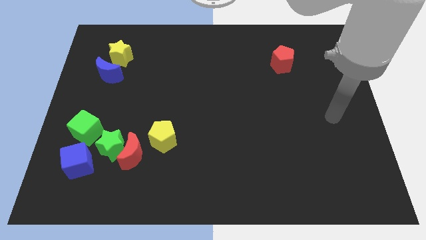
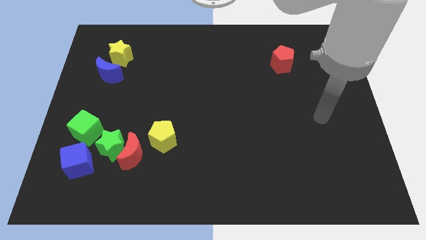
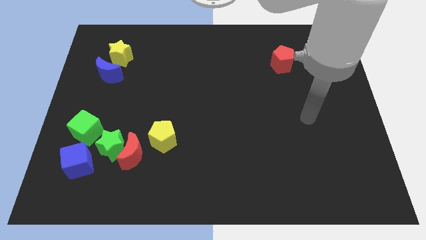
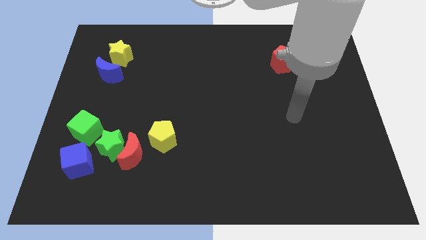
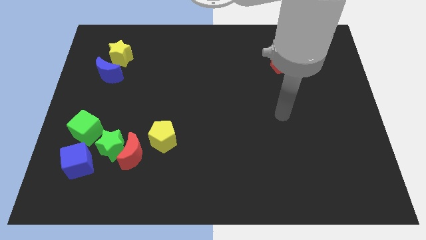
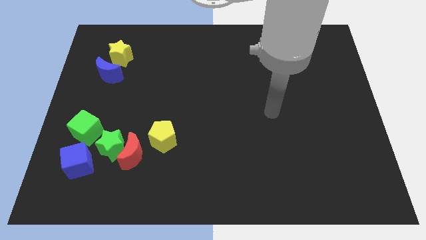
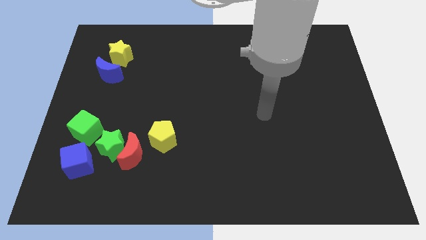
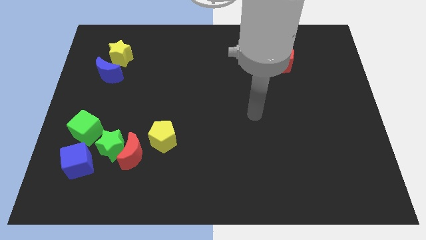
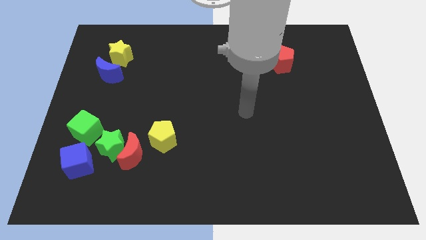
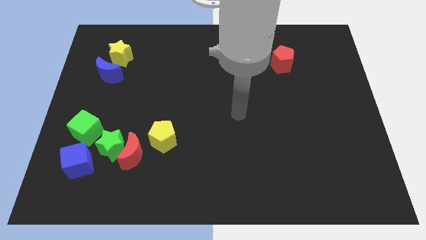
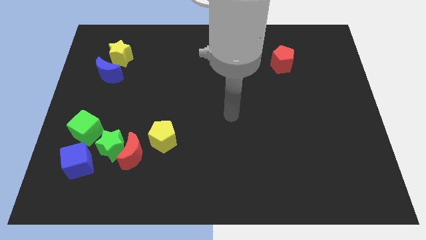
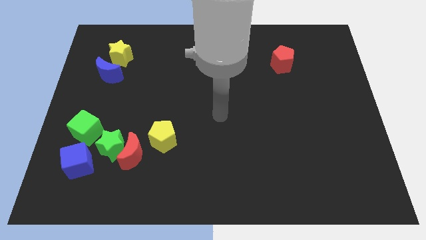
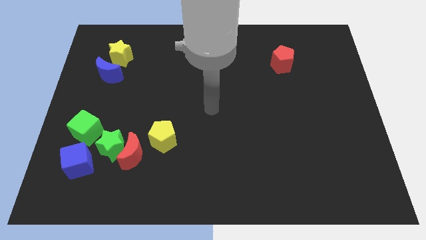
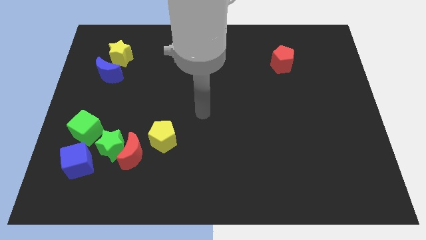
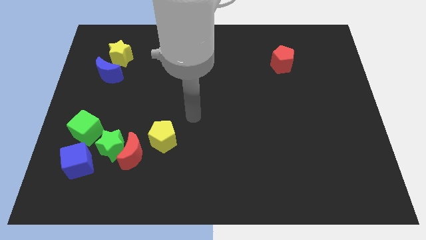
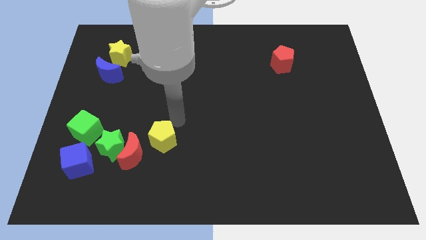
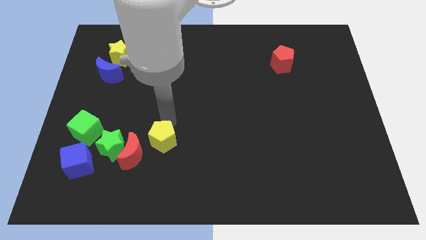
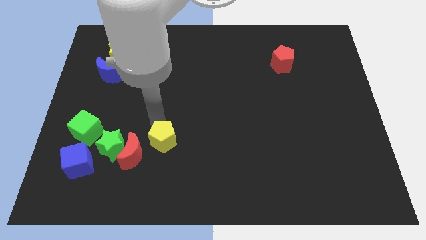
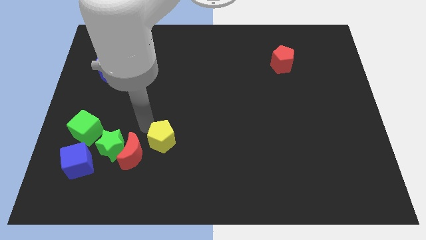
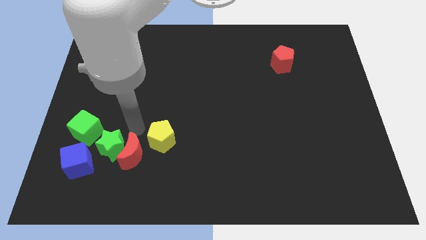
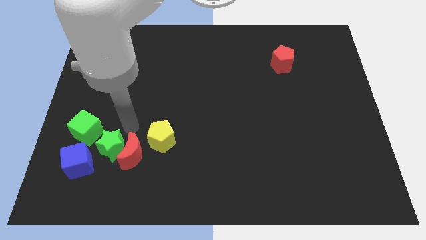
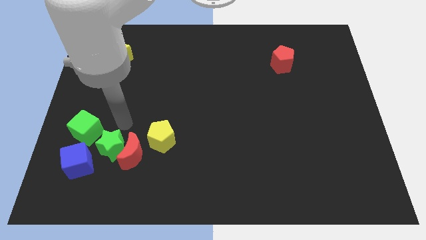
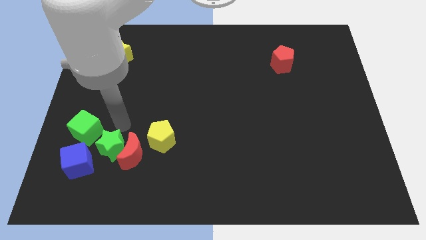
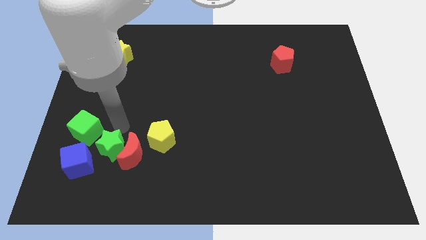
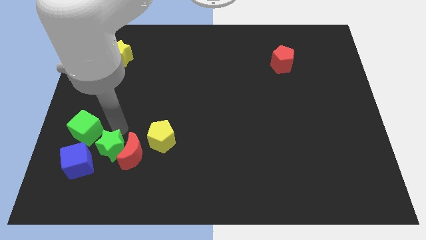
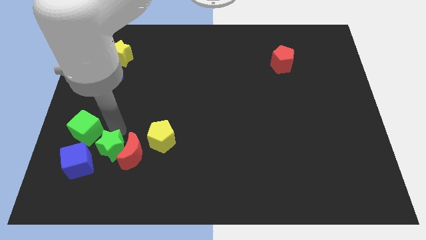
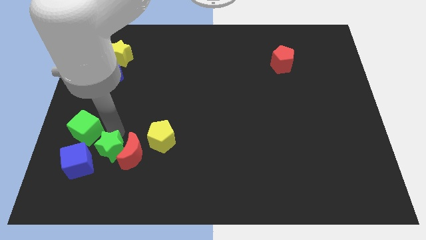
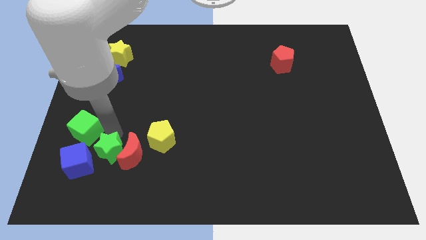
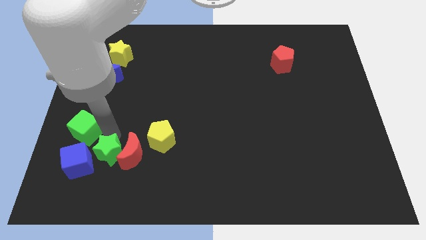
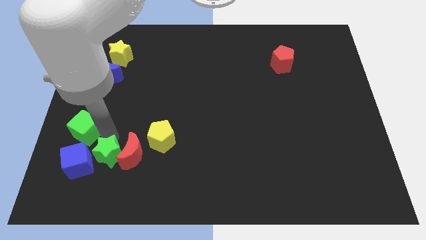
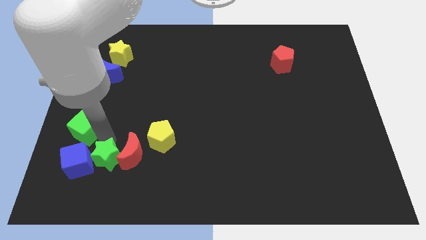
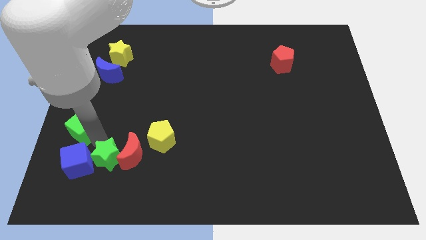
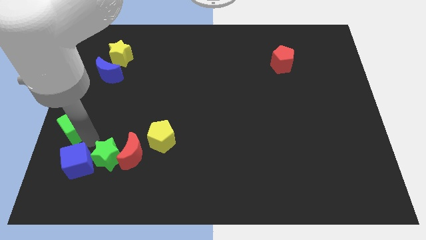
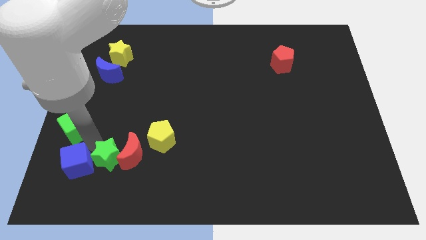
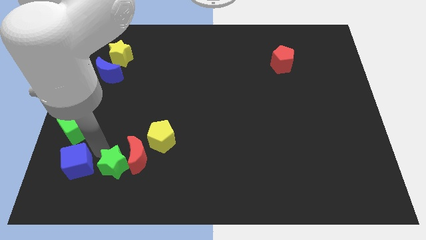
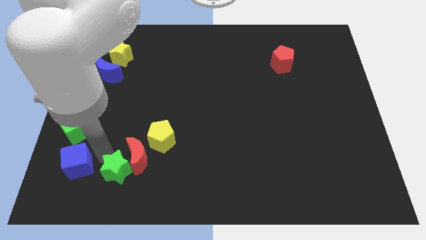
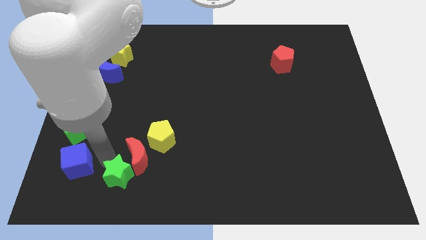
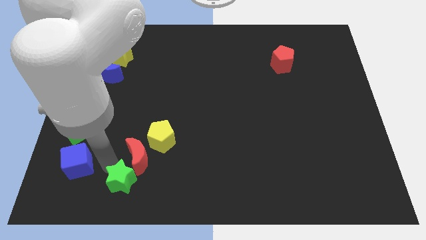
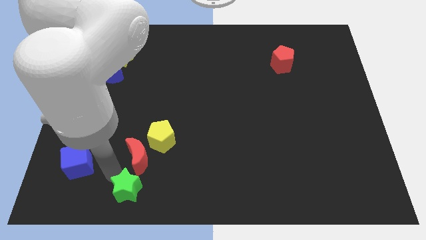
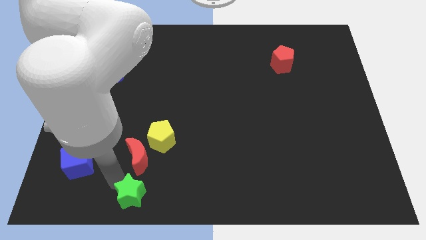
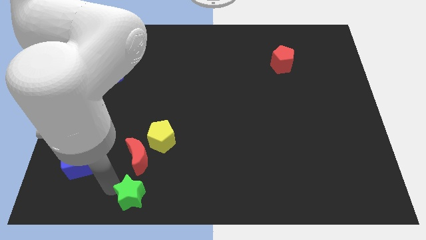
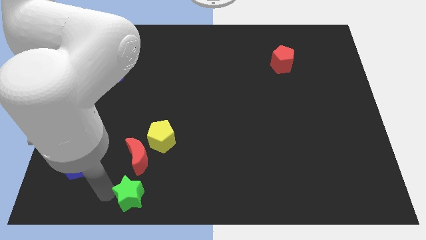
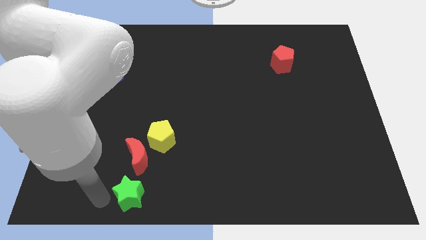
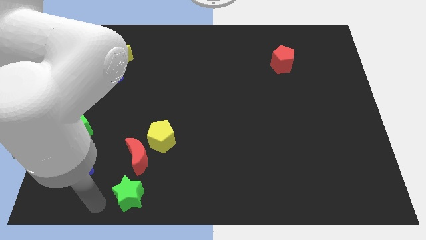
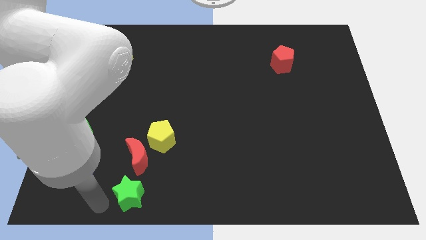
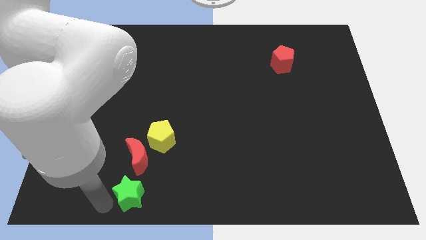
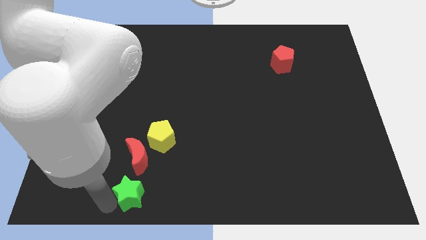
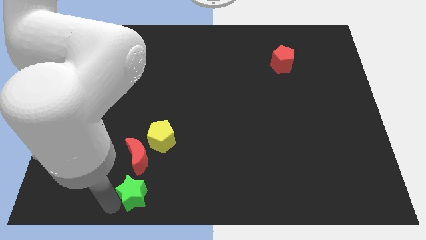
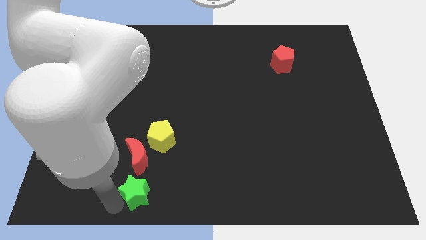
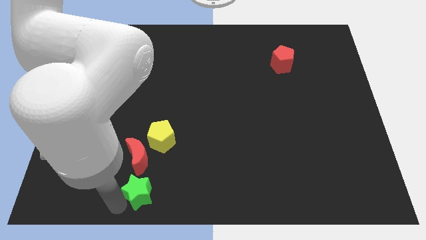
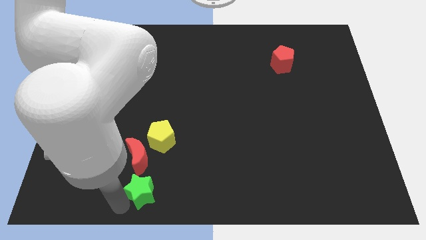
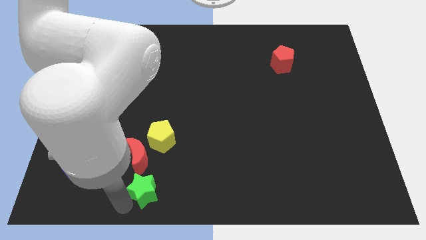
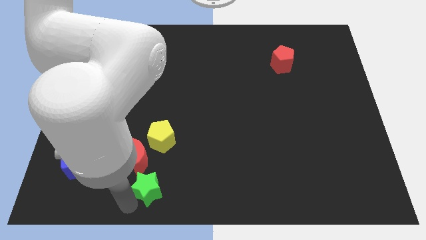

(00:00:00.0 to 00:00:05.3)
move the green star to the bottom

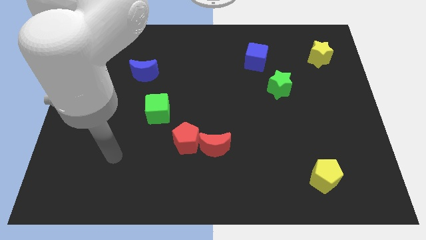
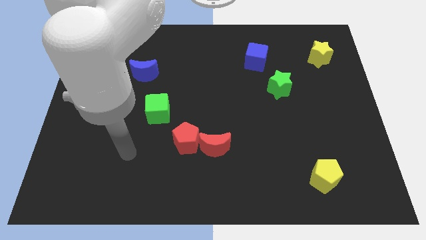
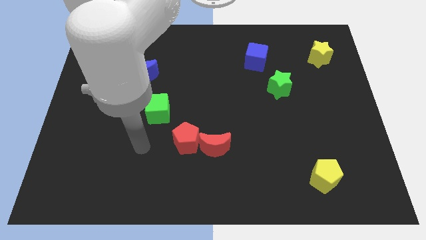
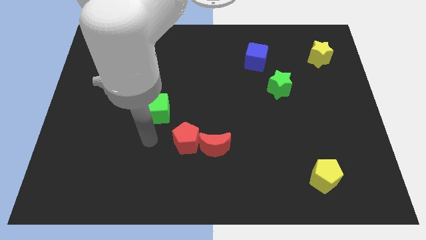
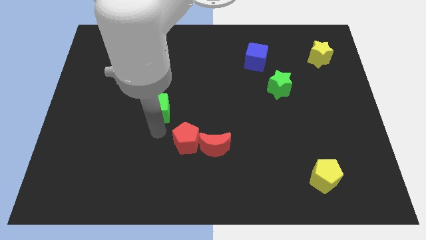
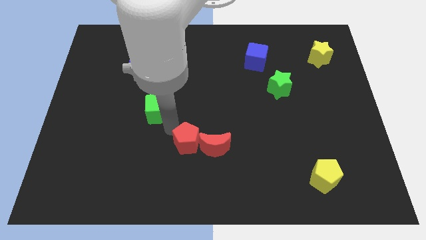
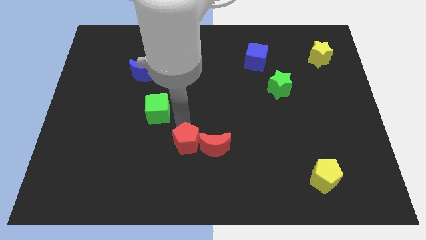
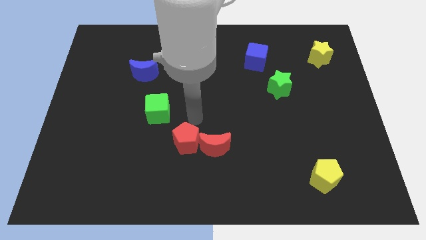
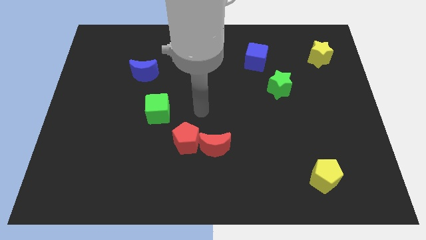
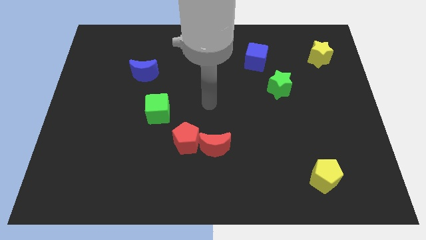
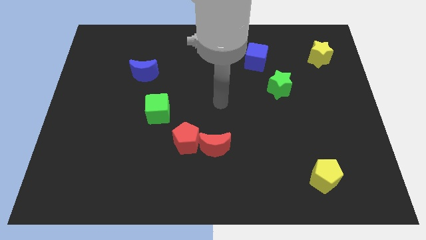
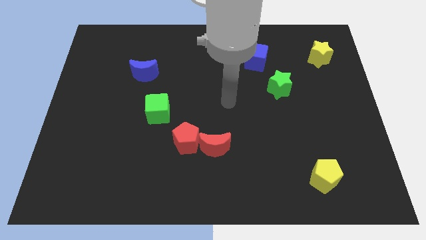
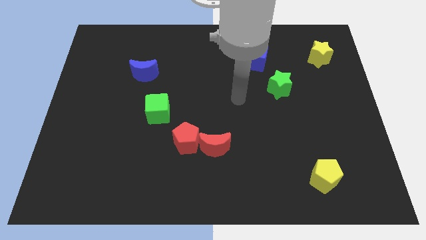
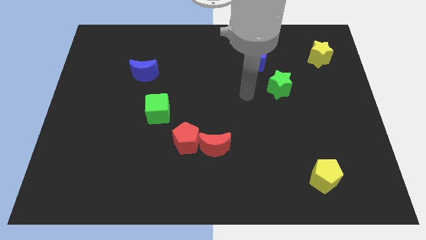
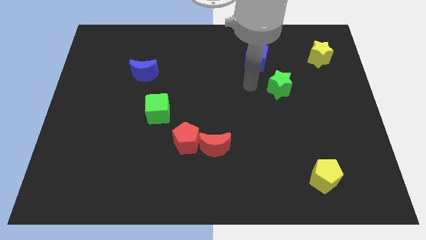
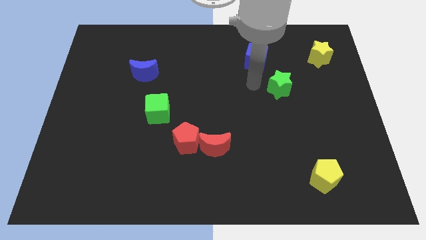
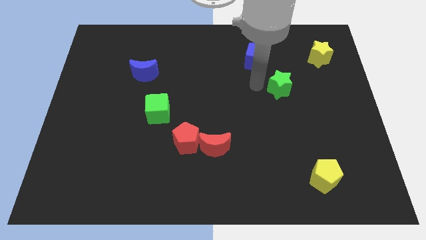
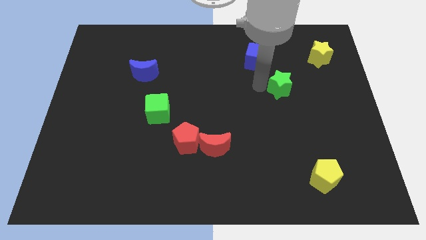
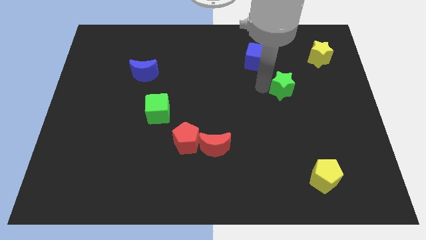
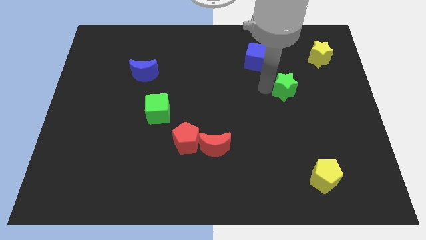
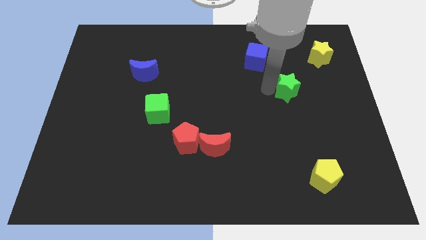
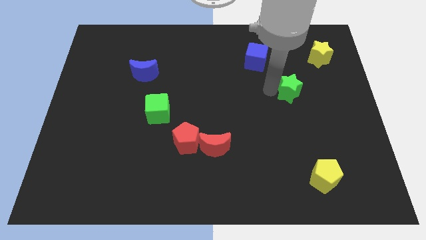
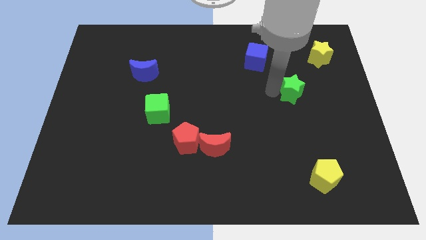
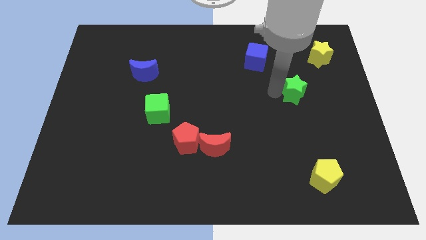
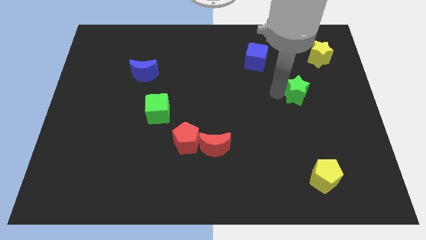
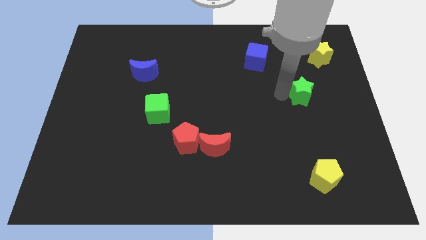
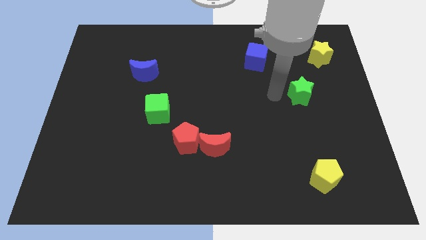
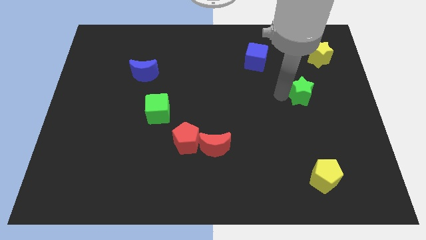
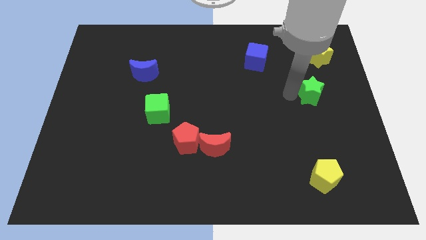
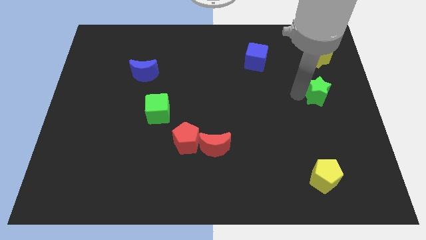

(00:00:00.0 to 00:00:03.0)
move the green star to the right side
